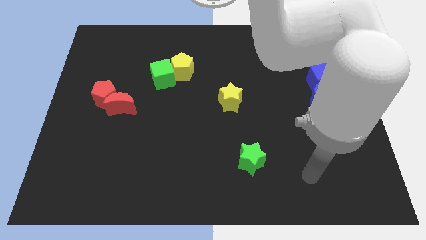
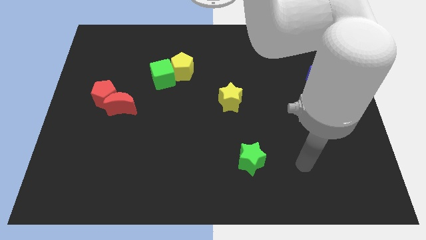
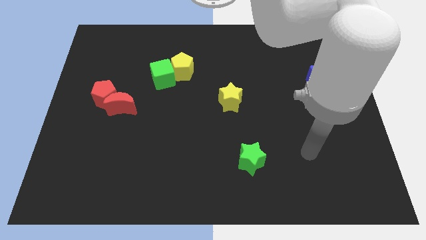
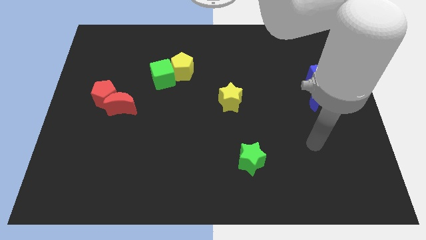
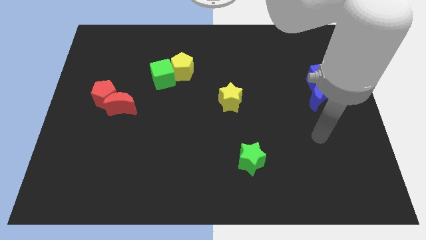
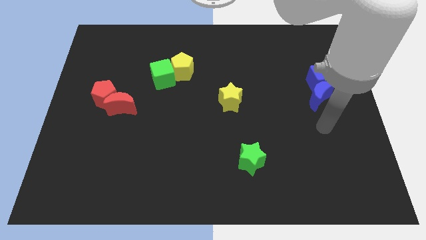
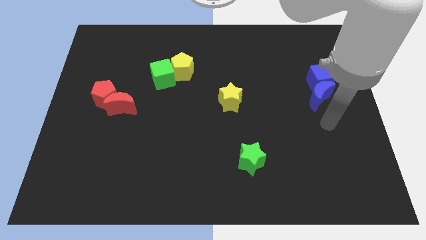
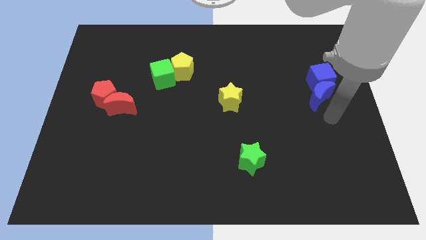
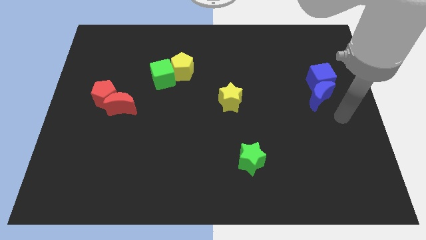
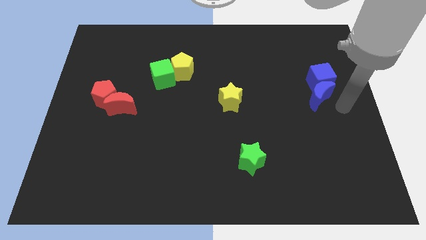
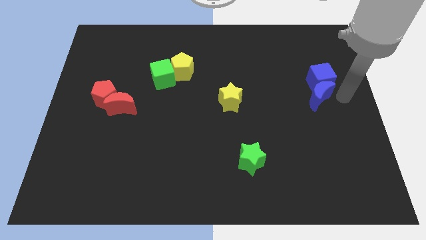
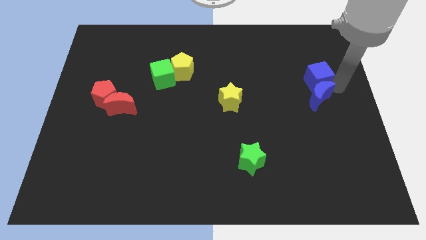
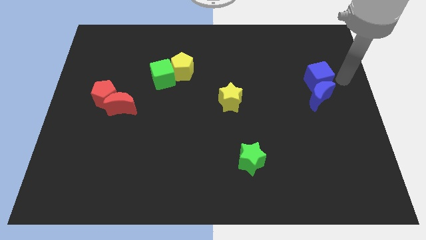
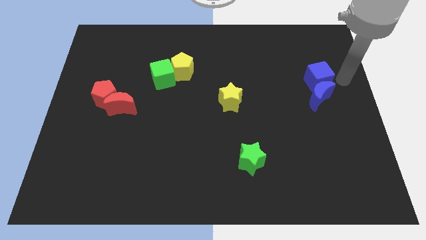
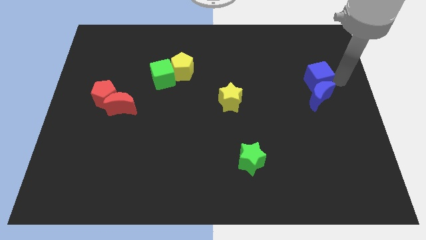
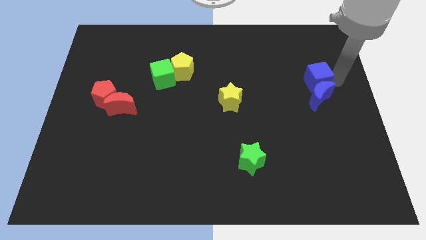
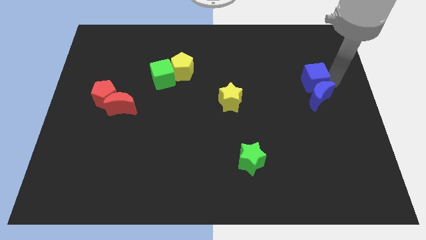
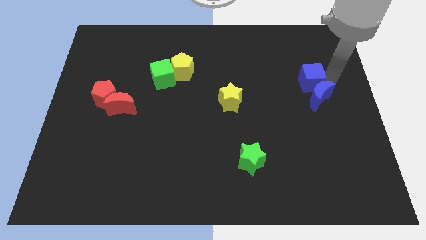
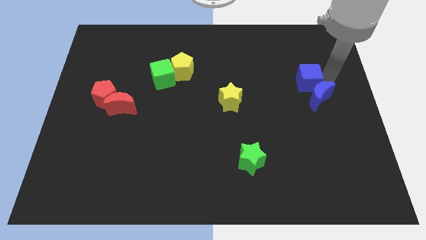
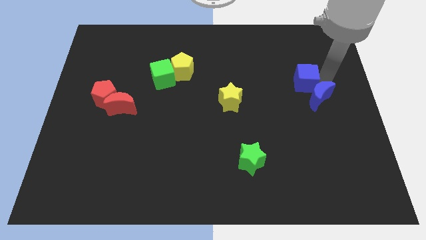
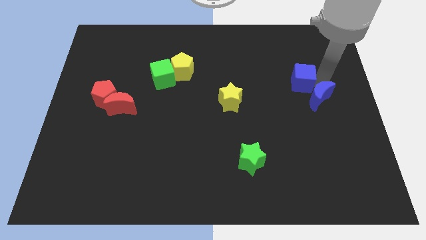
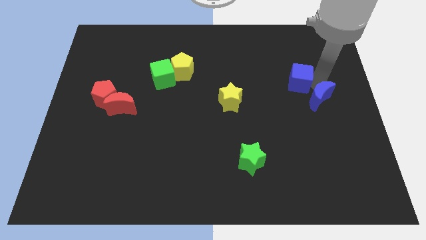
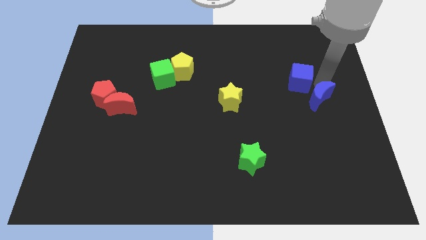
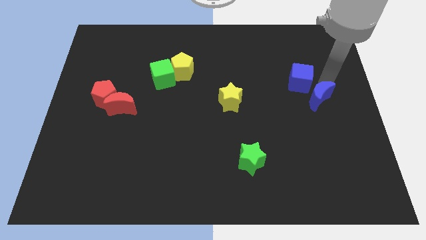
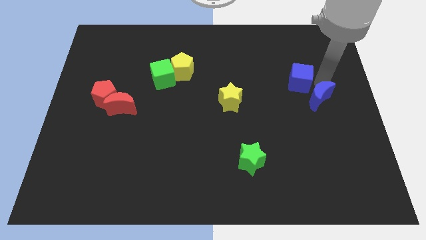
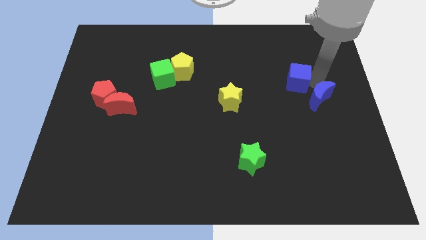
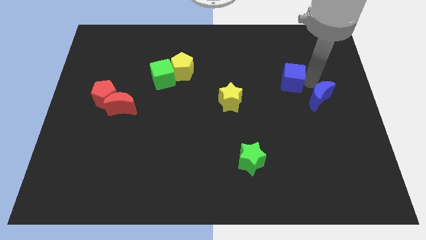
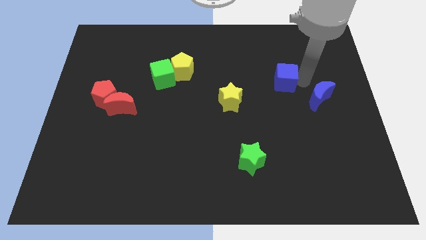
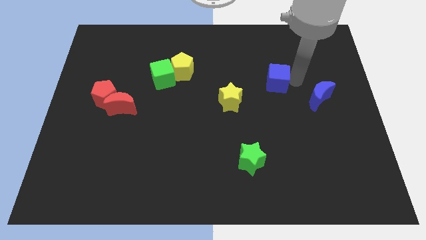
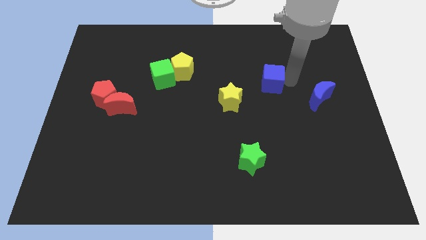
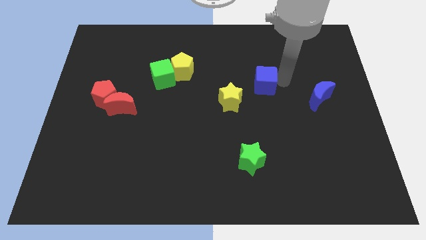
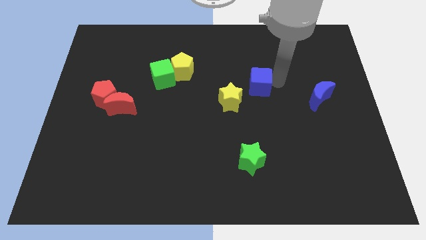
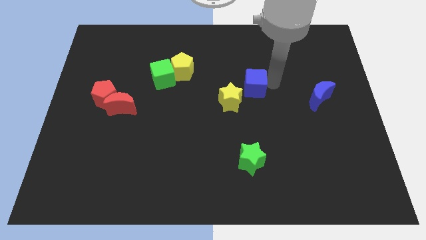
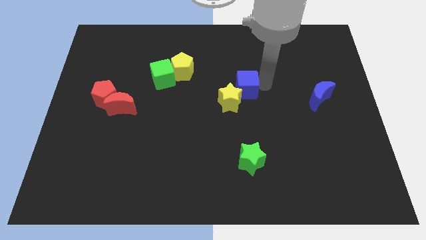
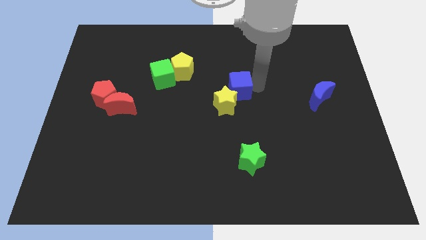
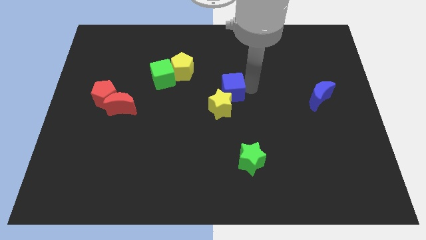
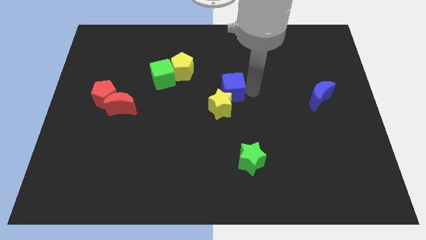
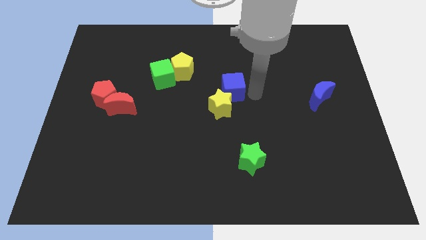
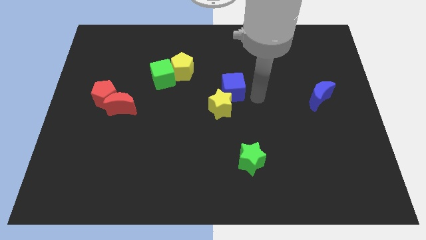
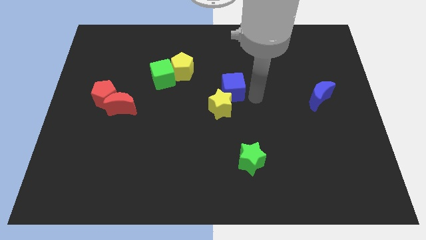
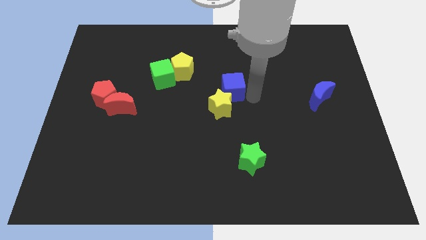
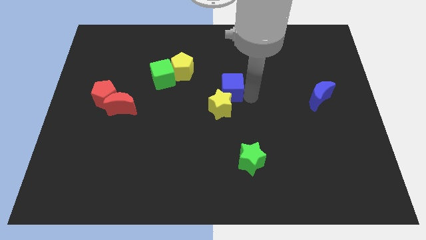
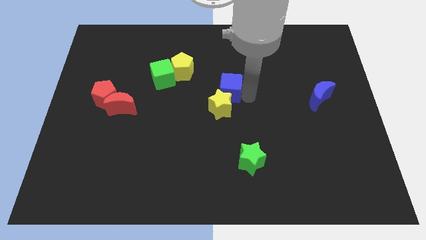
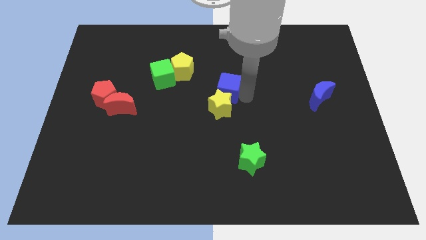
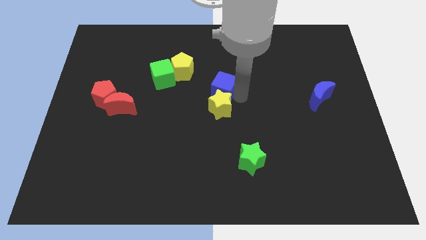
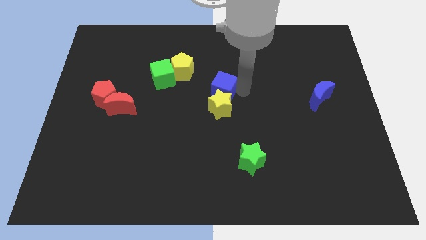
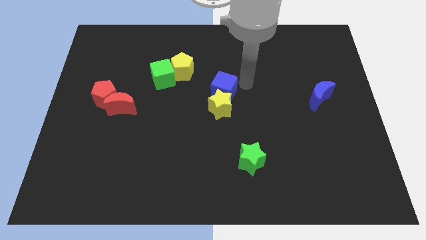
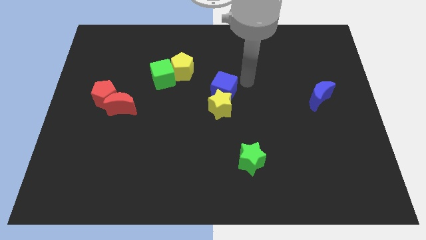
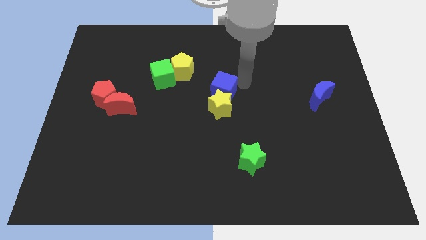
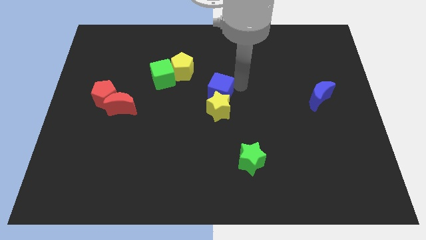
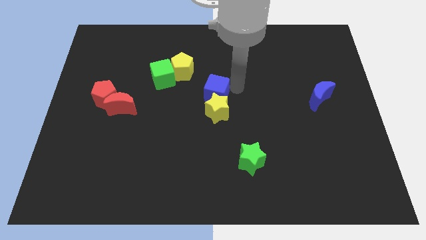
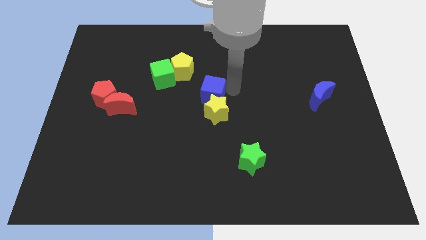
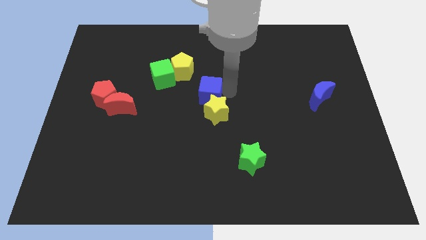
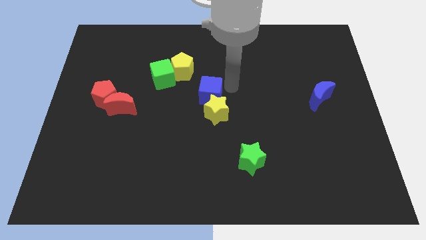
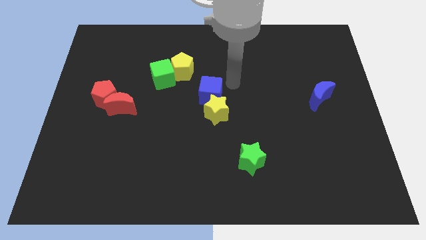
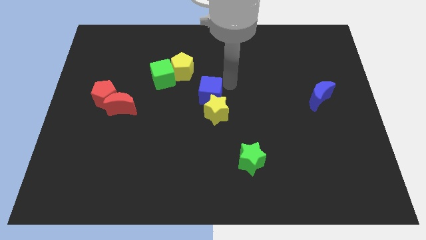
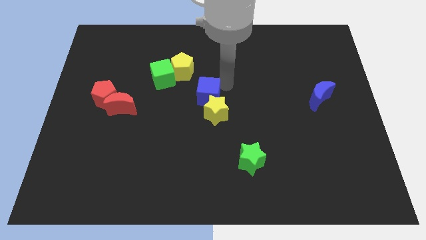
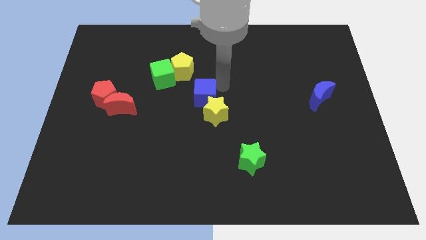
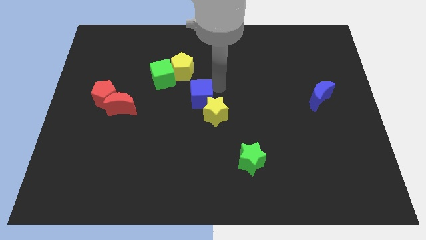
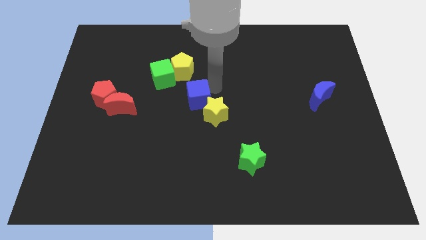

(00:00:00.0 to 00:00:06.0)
put the blue cube just left of the yellow star

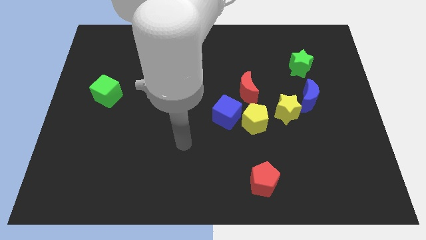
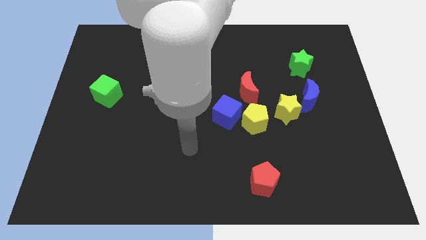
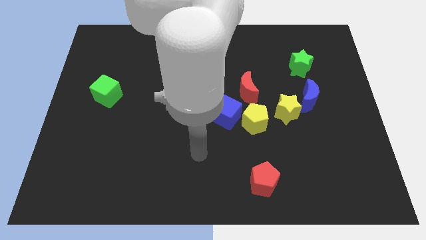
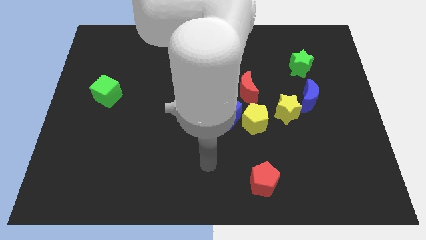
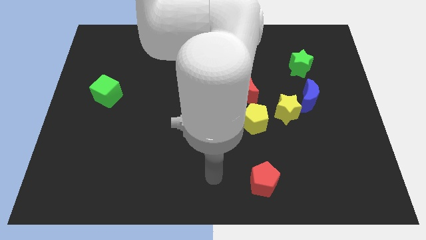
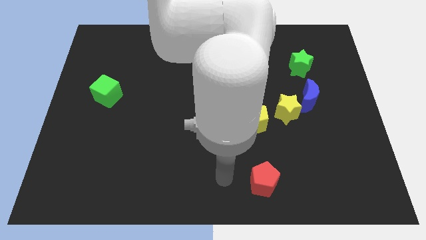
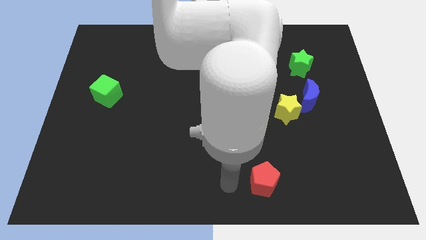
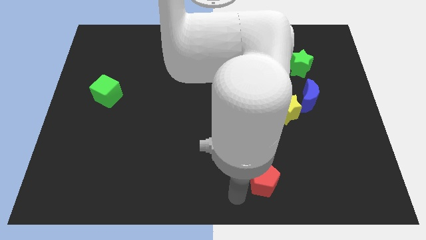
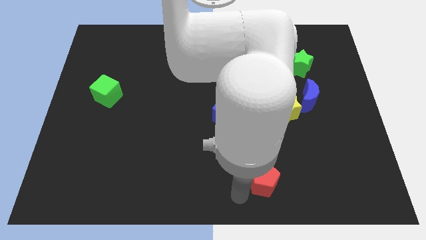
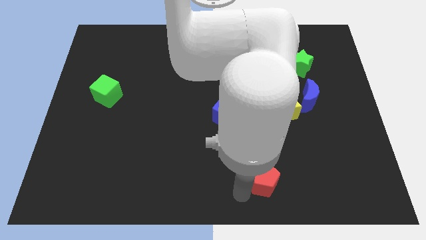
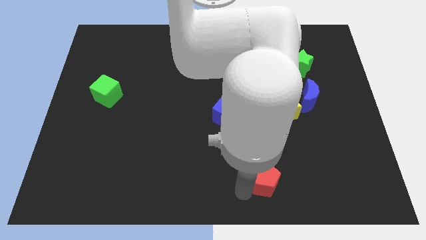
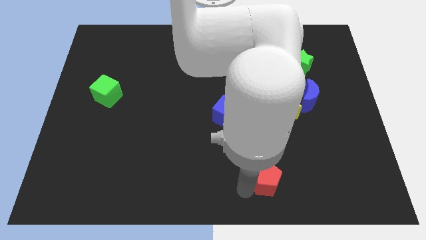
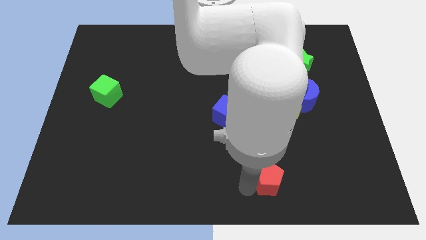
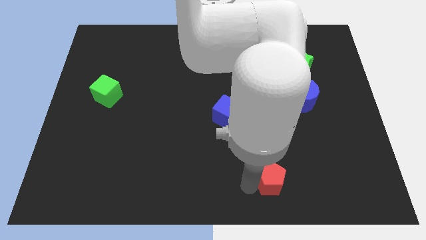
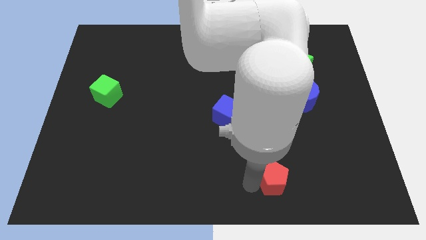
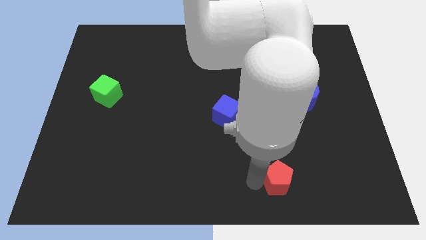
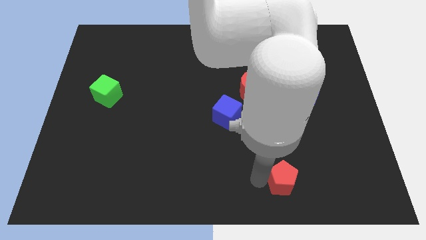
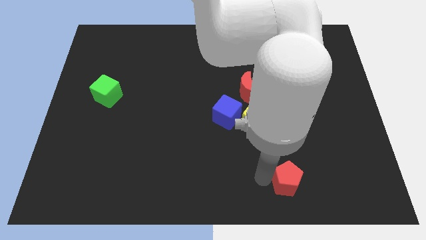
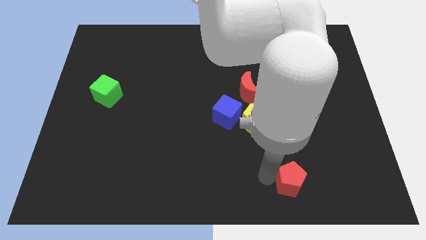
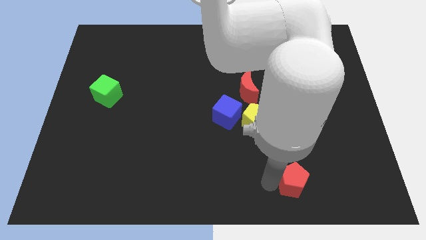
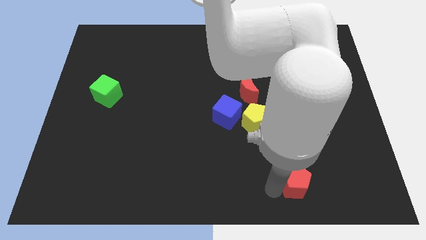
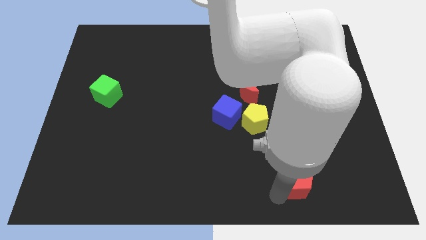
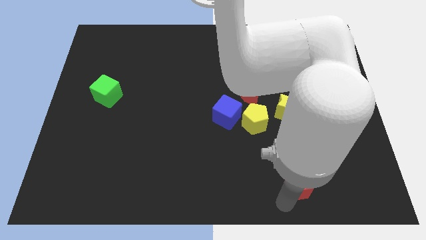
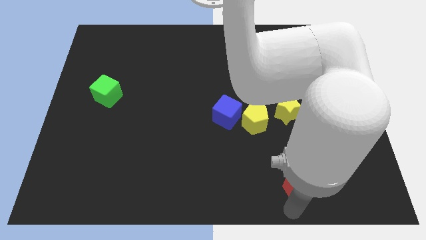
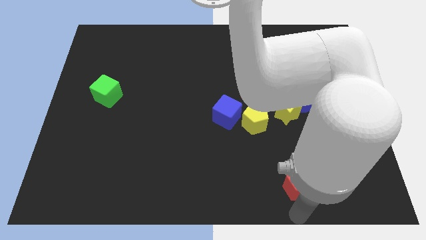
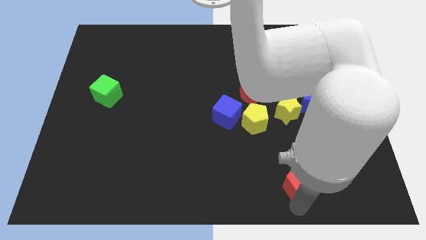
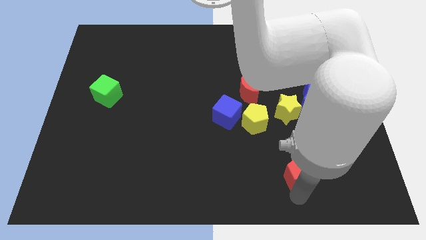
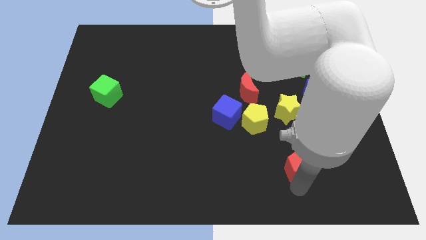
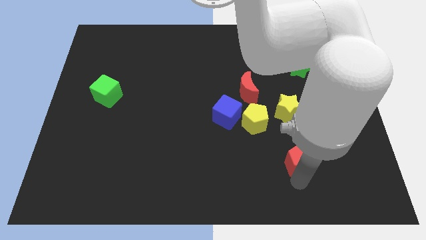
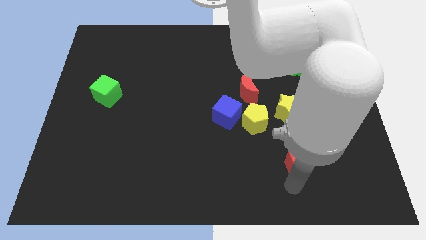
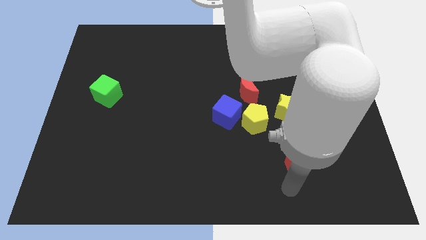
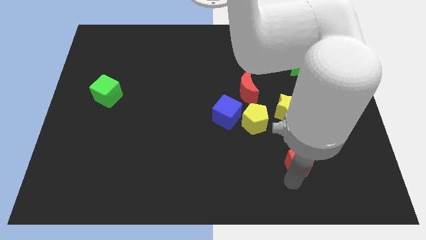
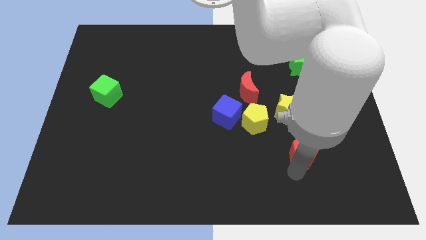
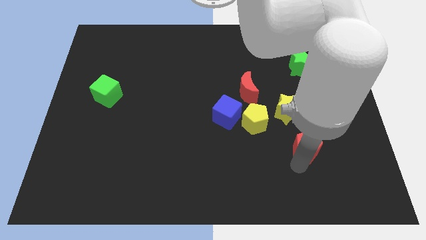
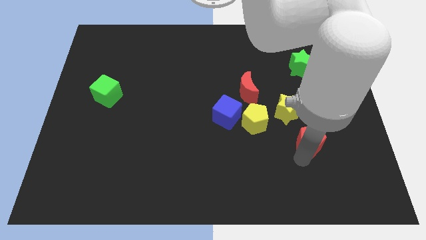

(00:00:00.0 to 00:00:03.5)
put the red pentagon diagonally down and to the right of the yellow star
